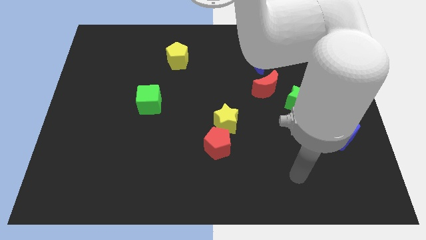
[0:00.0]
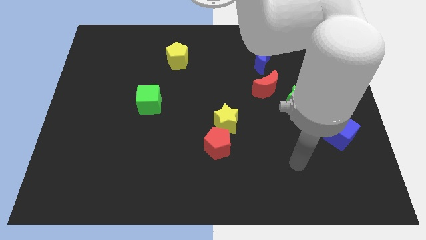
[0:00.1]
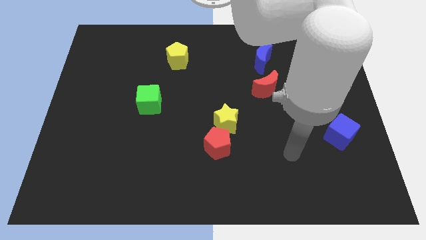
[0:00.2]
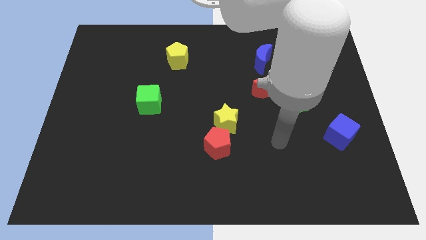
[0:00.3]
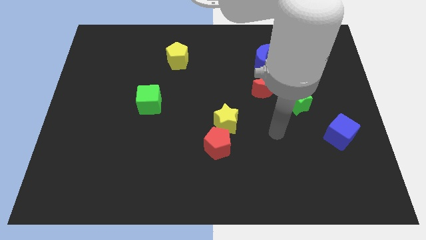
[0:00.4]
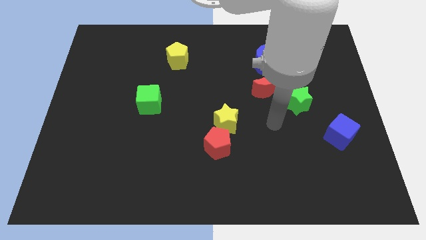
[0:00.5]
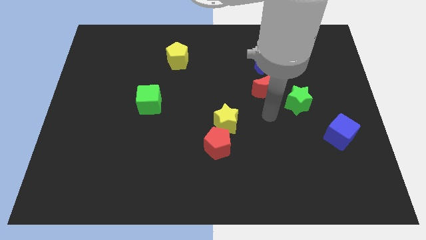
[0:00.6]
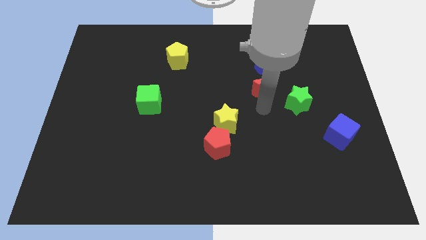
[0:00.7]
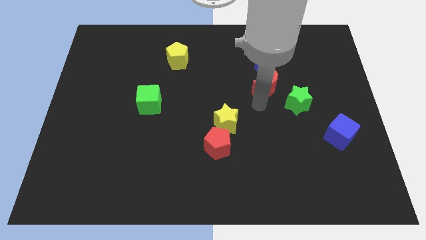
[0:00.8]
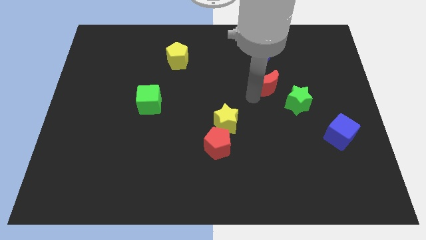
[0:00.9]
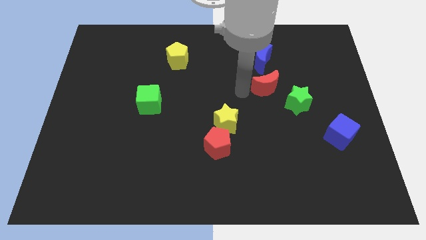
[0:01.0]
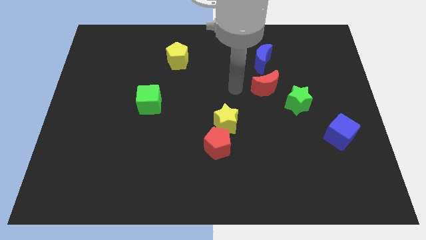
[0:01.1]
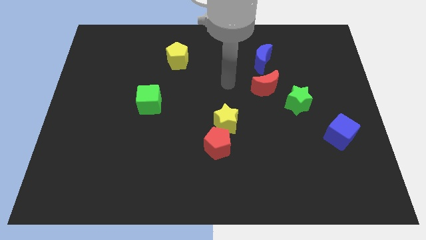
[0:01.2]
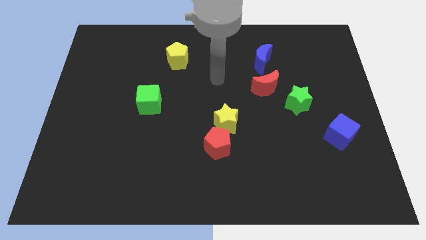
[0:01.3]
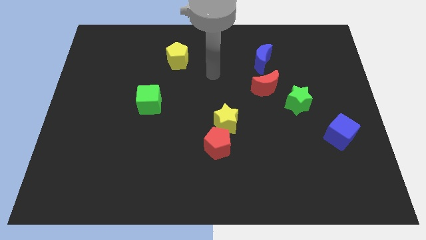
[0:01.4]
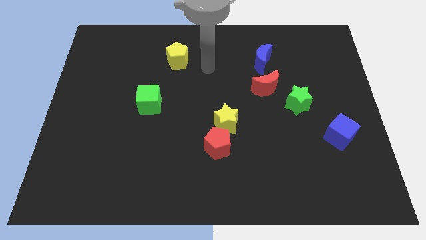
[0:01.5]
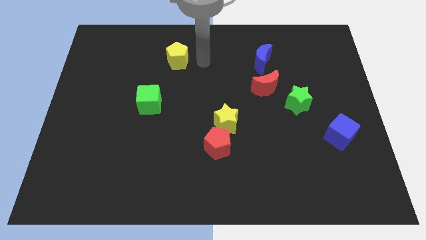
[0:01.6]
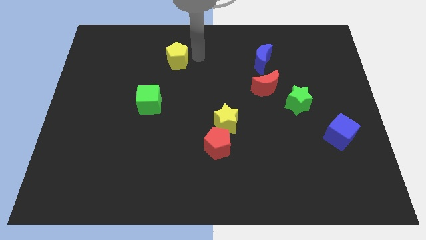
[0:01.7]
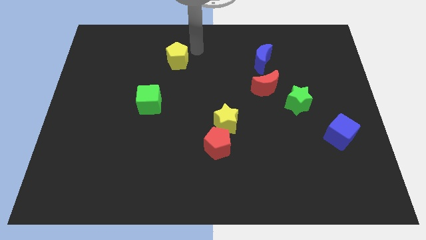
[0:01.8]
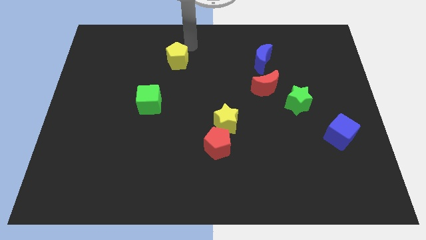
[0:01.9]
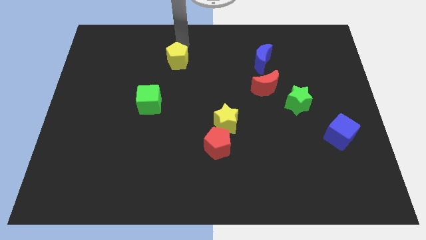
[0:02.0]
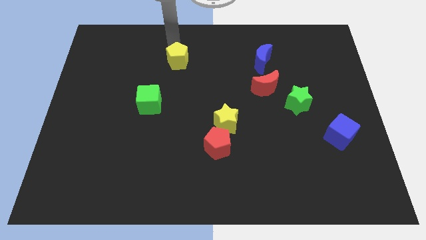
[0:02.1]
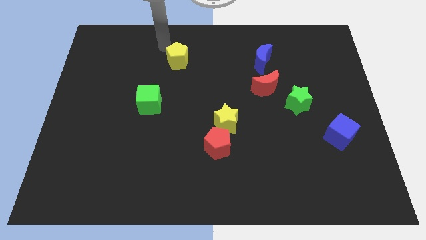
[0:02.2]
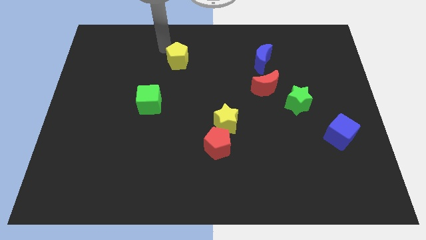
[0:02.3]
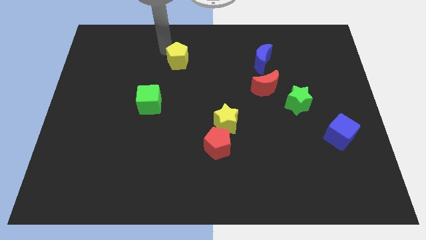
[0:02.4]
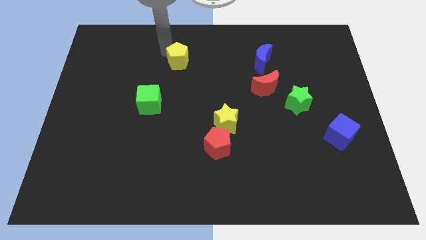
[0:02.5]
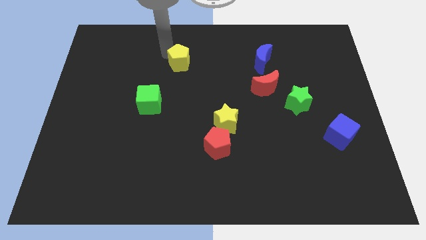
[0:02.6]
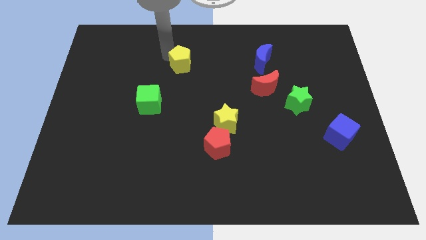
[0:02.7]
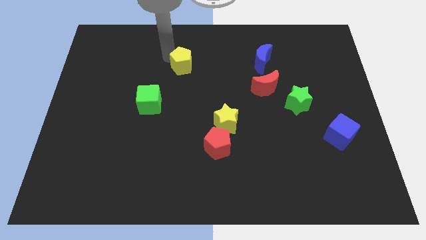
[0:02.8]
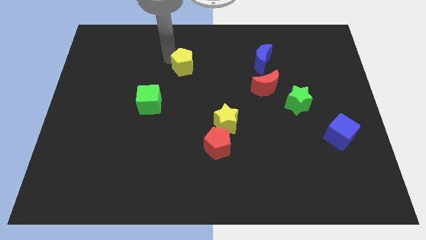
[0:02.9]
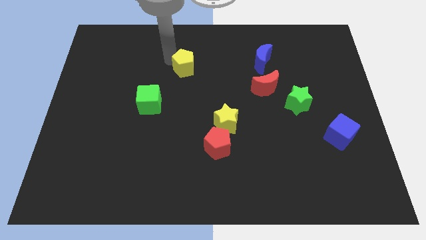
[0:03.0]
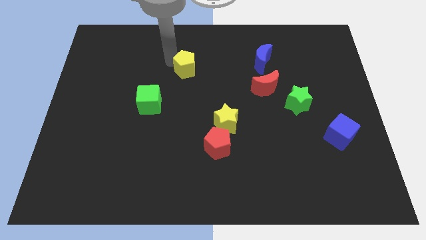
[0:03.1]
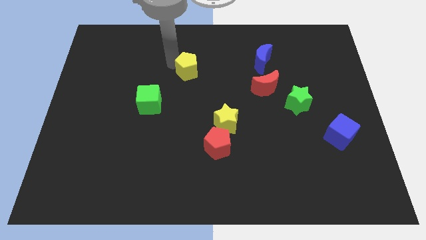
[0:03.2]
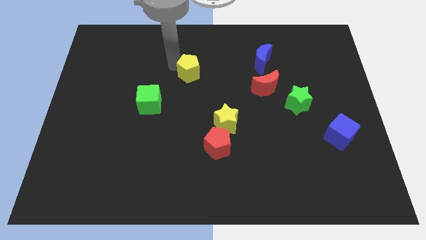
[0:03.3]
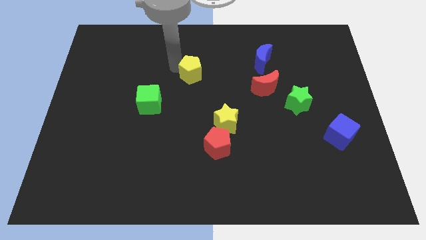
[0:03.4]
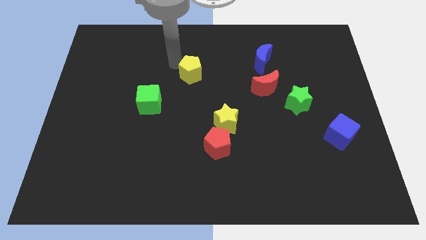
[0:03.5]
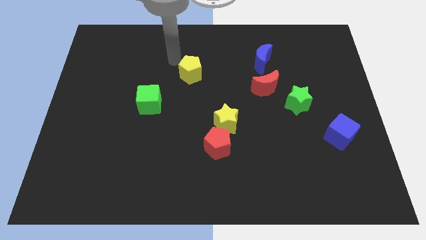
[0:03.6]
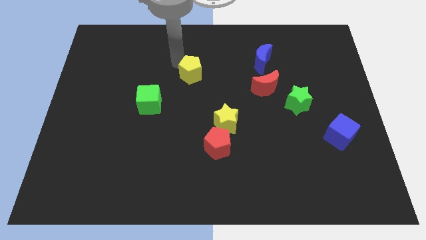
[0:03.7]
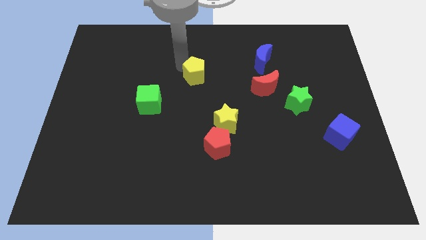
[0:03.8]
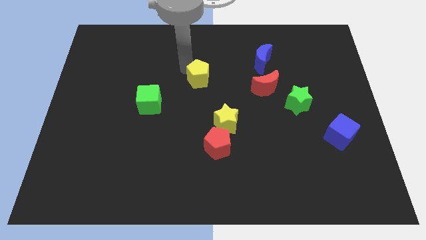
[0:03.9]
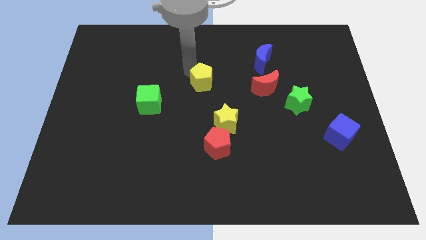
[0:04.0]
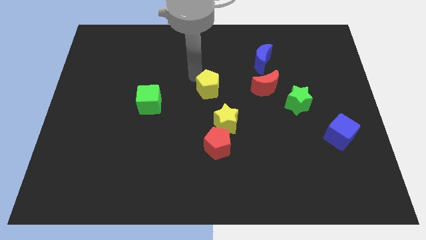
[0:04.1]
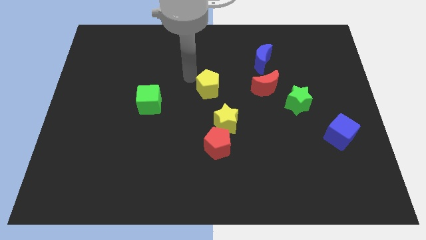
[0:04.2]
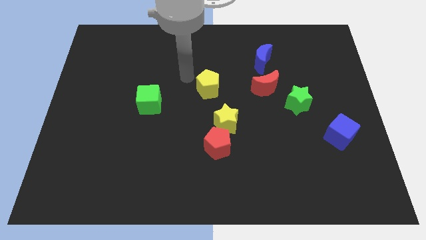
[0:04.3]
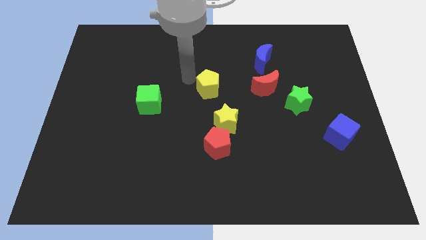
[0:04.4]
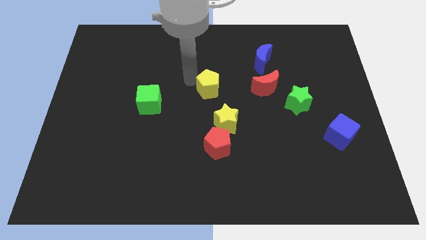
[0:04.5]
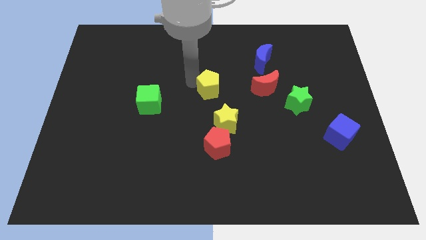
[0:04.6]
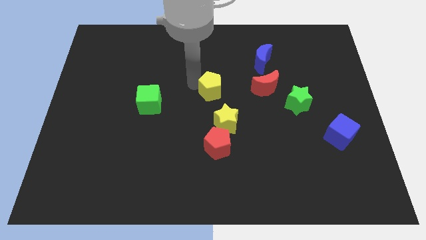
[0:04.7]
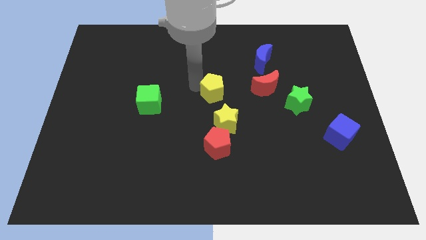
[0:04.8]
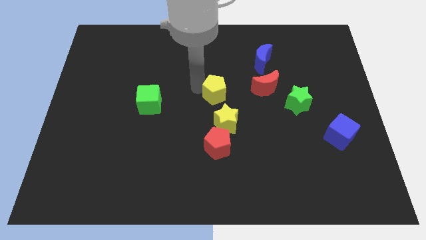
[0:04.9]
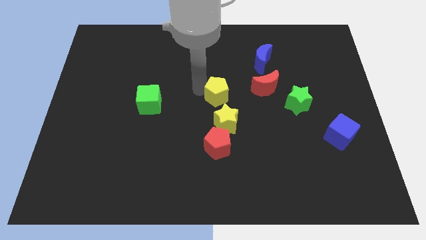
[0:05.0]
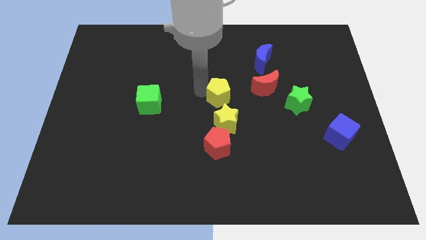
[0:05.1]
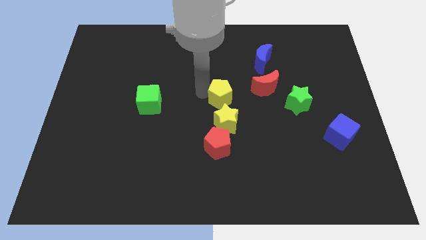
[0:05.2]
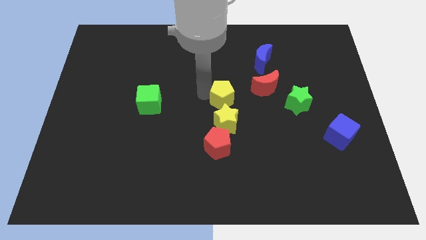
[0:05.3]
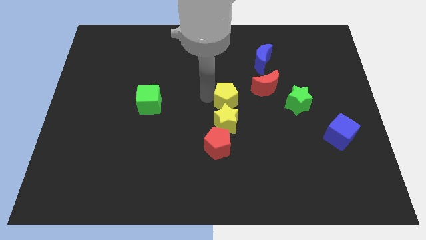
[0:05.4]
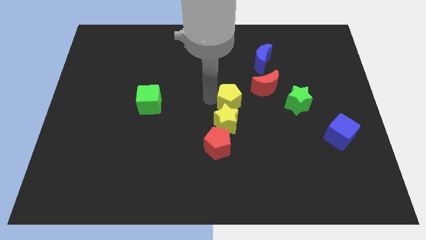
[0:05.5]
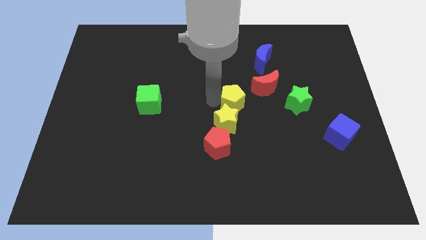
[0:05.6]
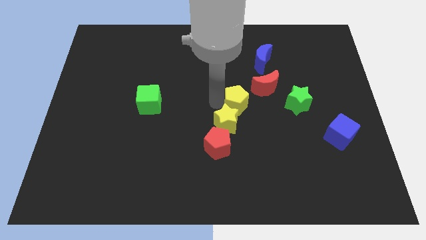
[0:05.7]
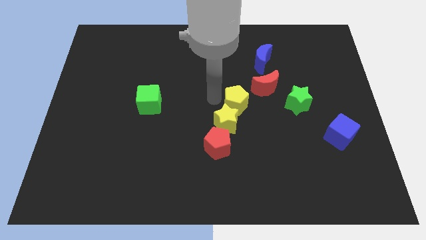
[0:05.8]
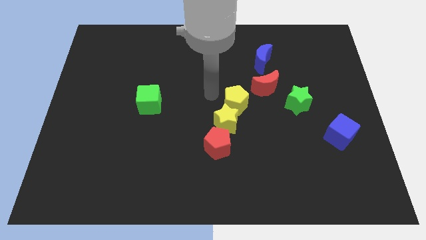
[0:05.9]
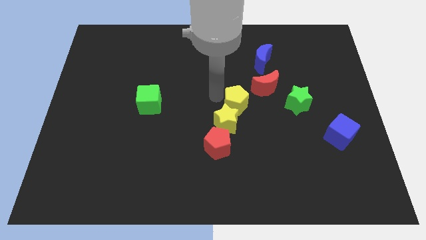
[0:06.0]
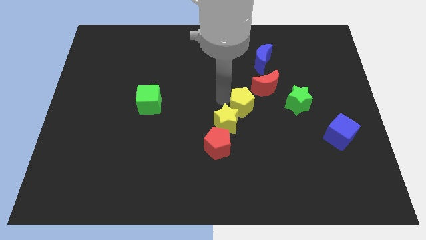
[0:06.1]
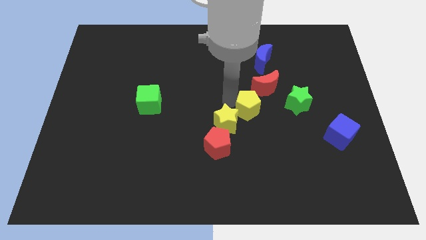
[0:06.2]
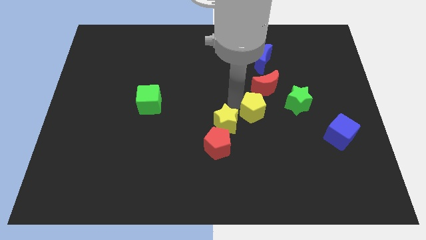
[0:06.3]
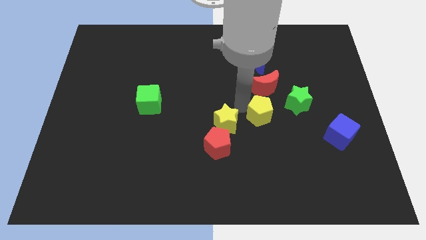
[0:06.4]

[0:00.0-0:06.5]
slide the yellow pentagon to the bottom left side of the green star
